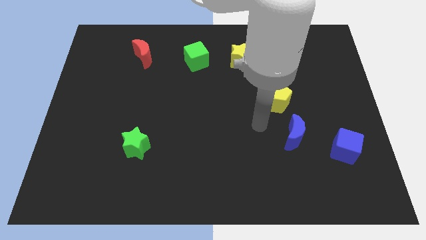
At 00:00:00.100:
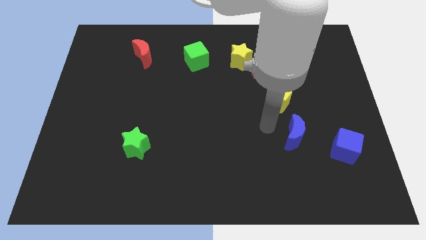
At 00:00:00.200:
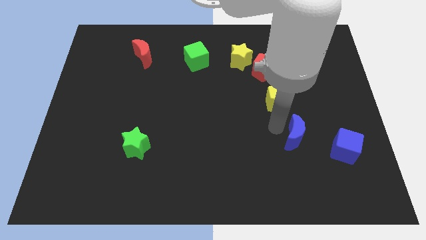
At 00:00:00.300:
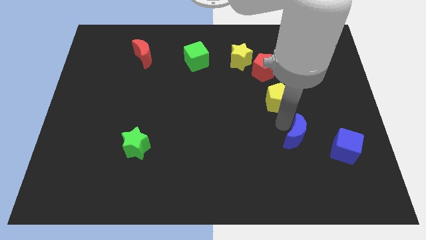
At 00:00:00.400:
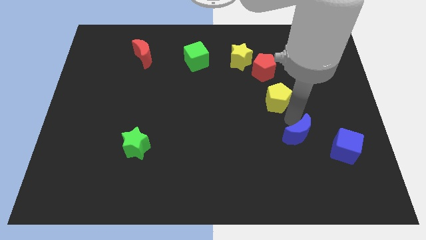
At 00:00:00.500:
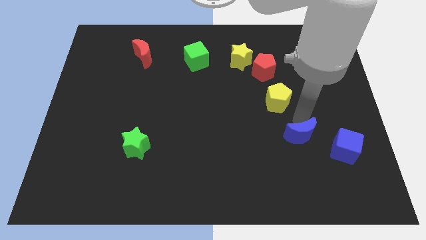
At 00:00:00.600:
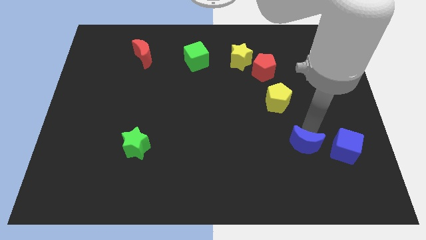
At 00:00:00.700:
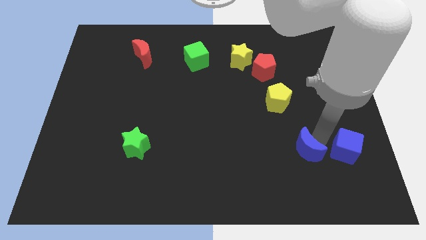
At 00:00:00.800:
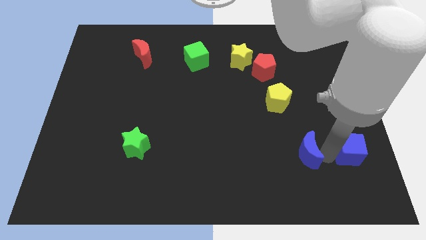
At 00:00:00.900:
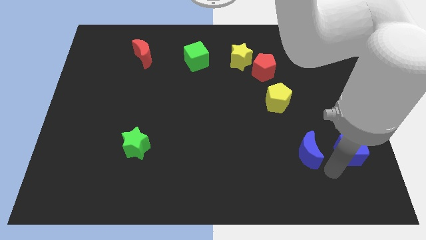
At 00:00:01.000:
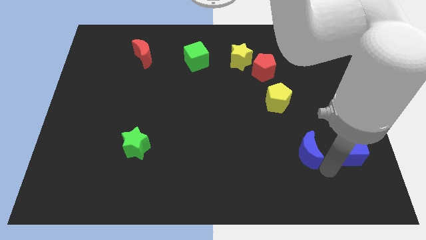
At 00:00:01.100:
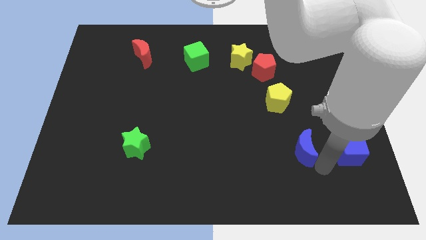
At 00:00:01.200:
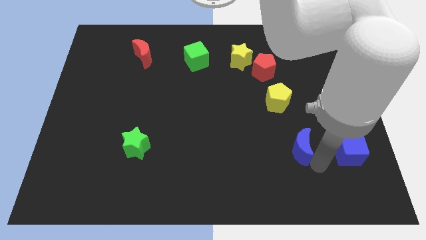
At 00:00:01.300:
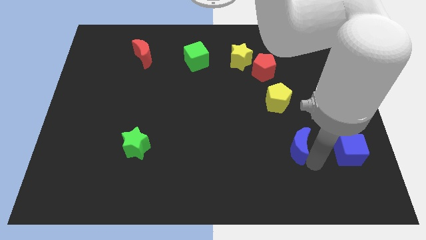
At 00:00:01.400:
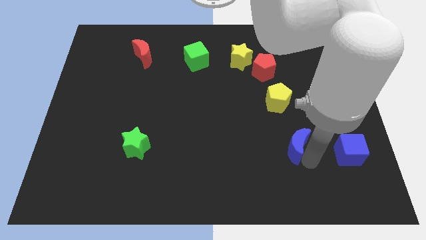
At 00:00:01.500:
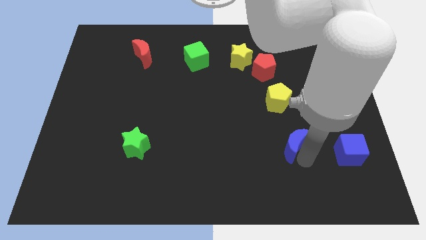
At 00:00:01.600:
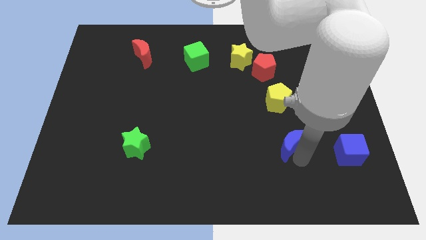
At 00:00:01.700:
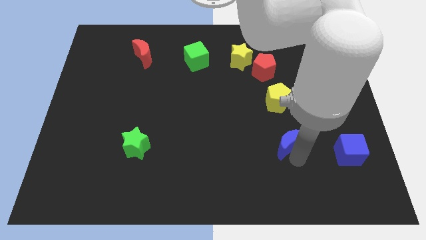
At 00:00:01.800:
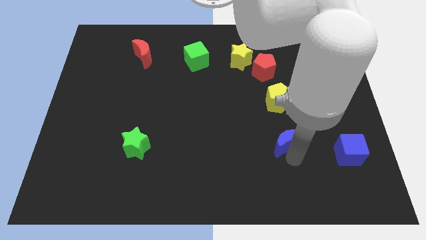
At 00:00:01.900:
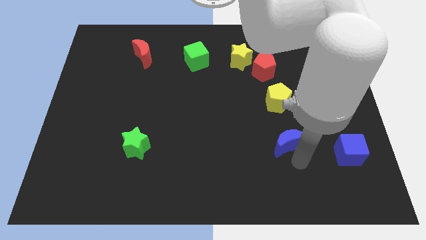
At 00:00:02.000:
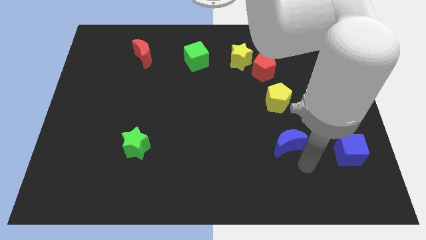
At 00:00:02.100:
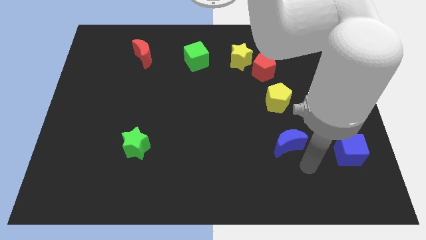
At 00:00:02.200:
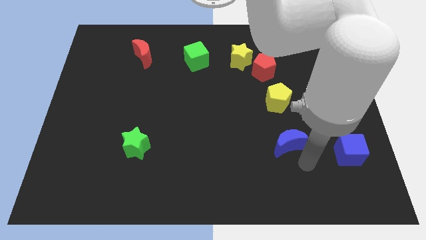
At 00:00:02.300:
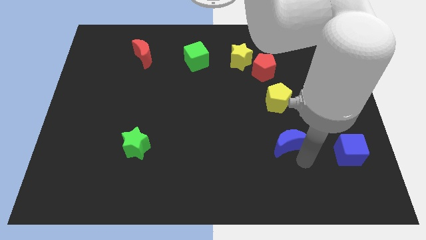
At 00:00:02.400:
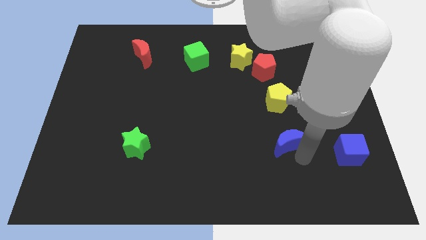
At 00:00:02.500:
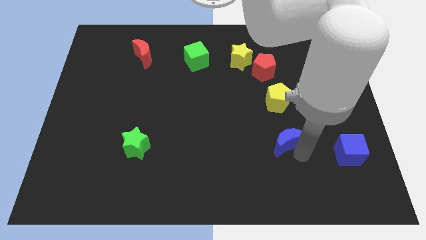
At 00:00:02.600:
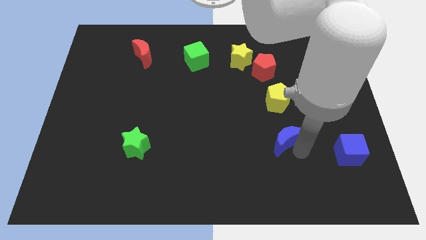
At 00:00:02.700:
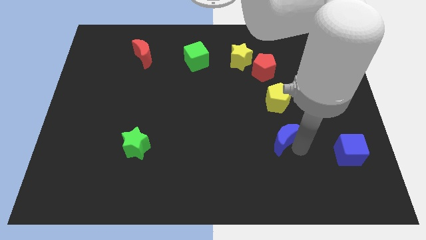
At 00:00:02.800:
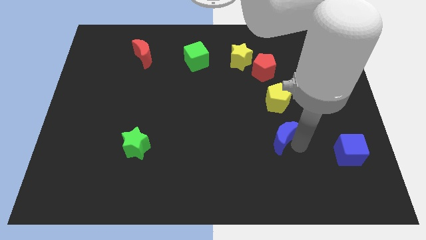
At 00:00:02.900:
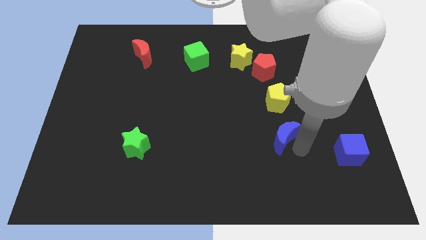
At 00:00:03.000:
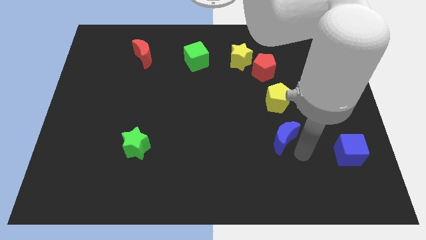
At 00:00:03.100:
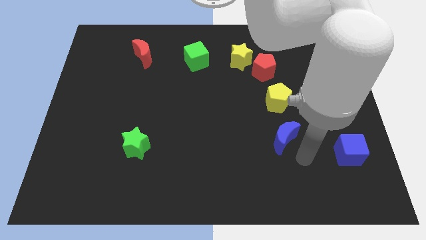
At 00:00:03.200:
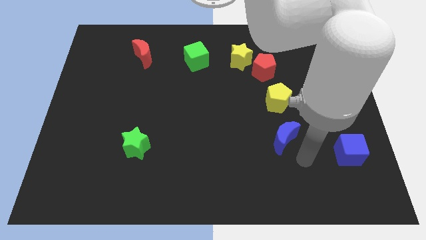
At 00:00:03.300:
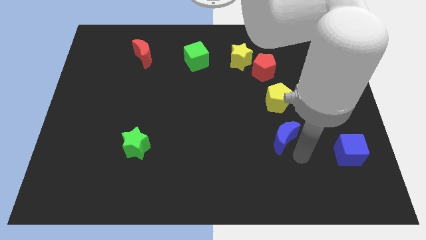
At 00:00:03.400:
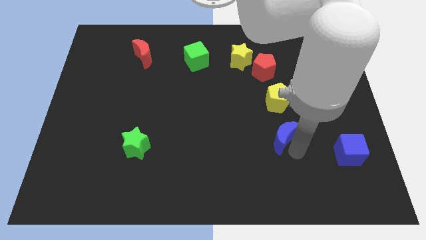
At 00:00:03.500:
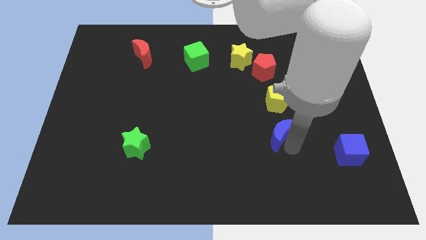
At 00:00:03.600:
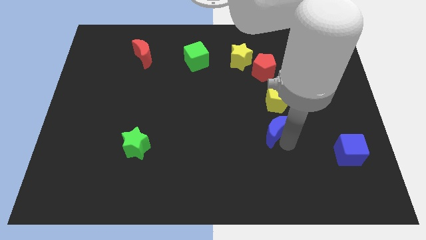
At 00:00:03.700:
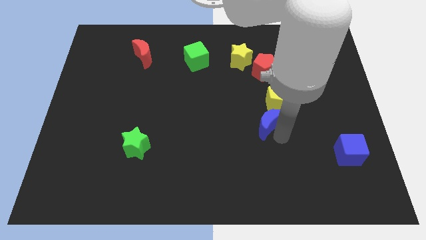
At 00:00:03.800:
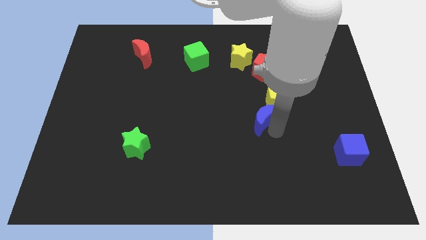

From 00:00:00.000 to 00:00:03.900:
slightly move the blue moon upwards and then to the left

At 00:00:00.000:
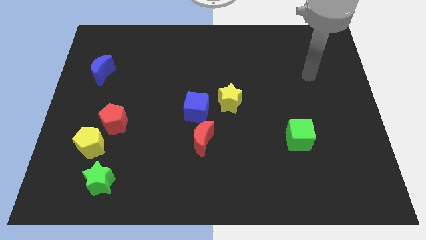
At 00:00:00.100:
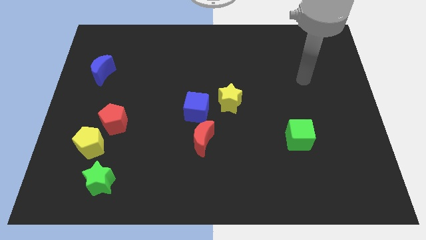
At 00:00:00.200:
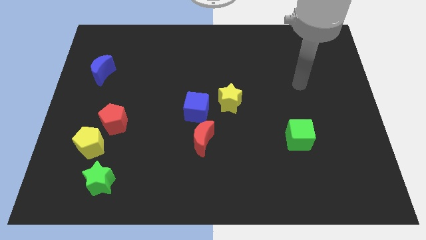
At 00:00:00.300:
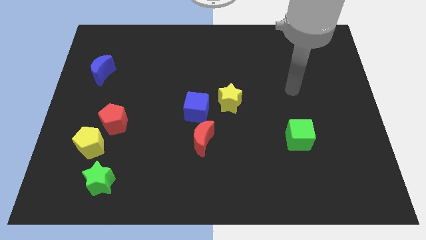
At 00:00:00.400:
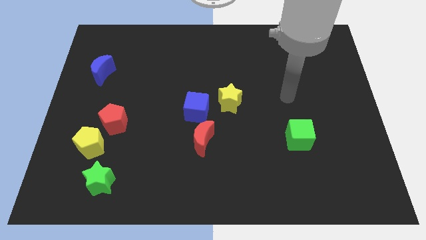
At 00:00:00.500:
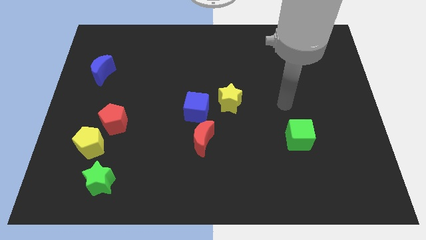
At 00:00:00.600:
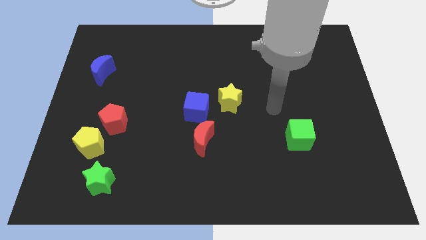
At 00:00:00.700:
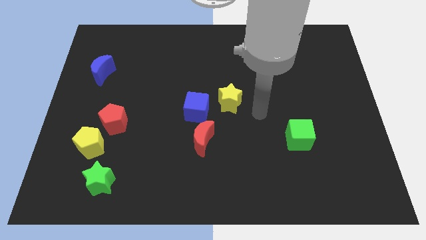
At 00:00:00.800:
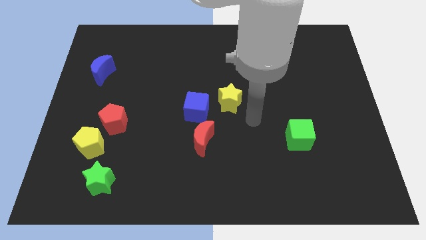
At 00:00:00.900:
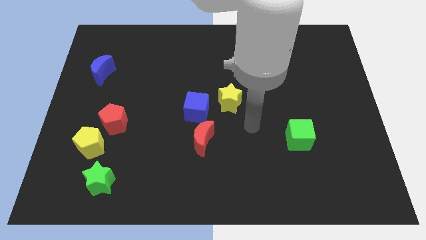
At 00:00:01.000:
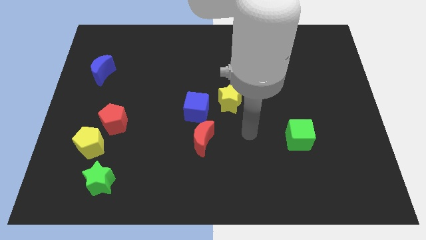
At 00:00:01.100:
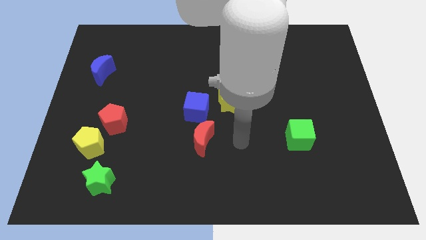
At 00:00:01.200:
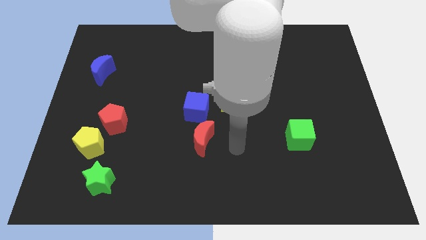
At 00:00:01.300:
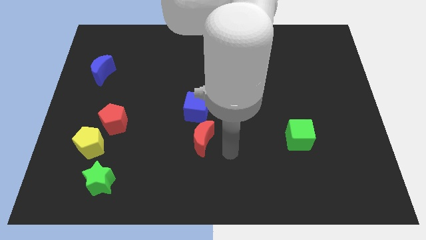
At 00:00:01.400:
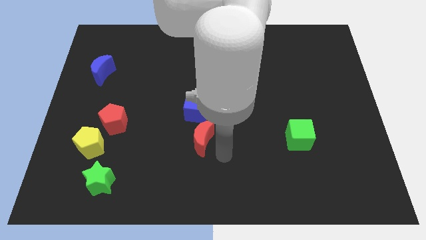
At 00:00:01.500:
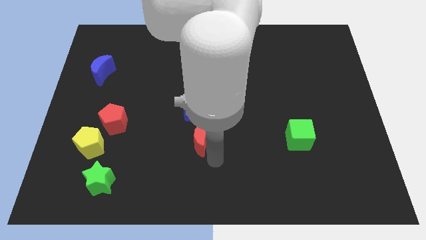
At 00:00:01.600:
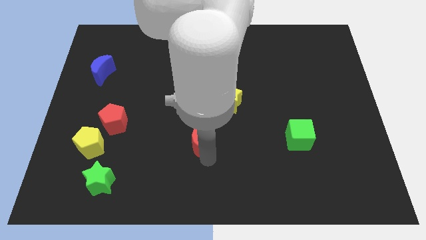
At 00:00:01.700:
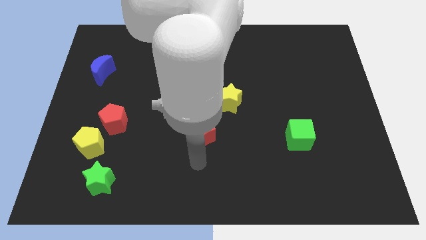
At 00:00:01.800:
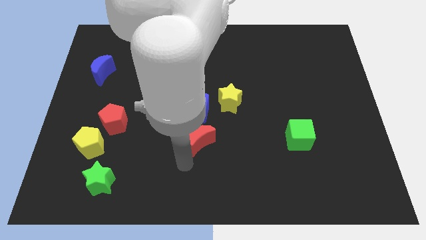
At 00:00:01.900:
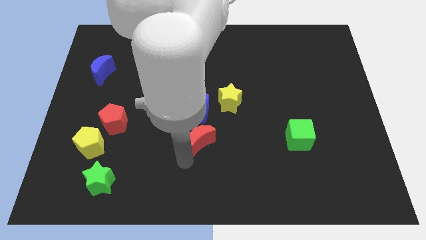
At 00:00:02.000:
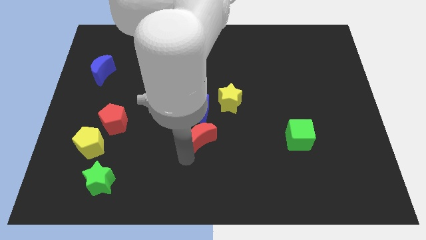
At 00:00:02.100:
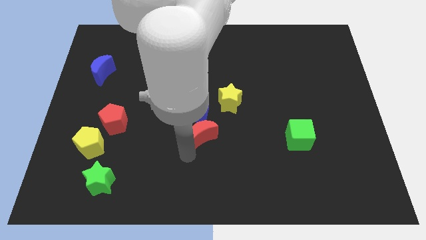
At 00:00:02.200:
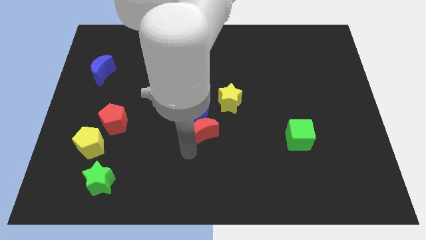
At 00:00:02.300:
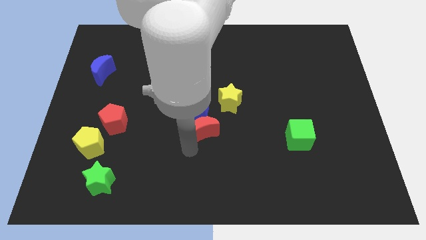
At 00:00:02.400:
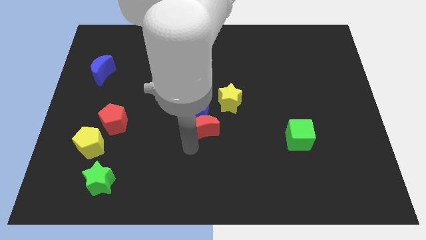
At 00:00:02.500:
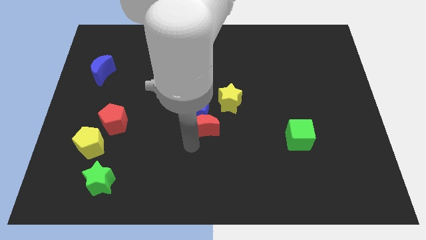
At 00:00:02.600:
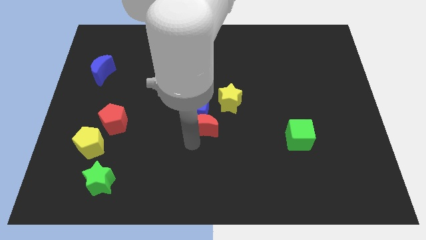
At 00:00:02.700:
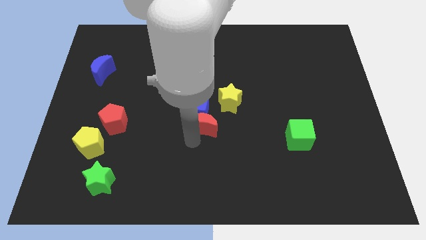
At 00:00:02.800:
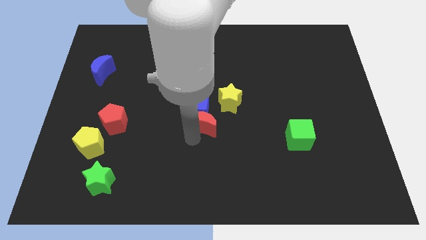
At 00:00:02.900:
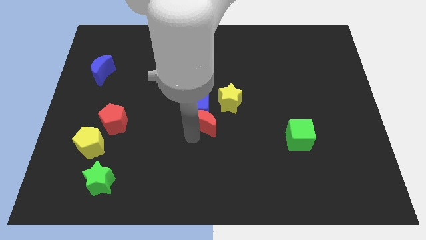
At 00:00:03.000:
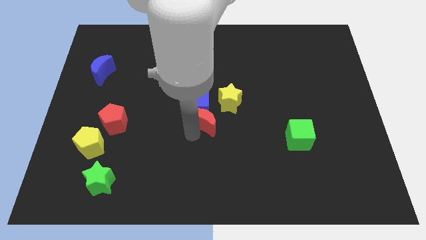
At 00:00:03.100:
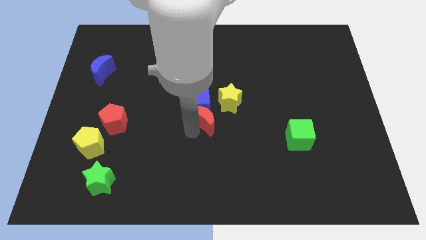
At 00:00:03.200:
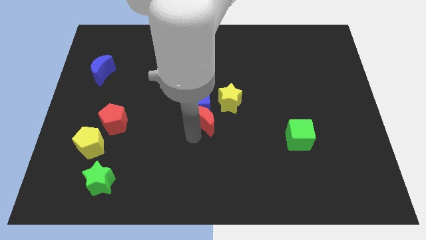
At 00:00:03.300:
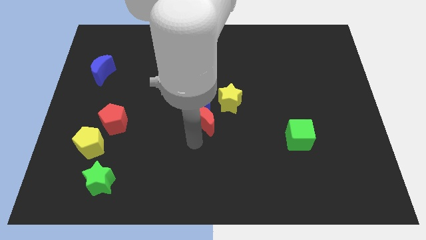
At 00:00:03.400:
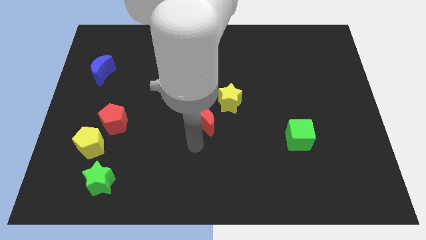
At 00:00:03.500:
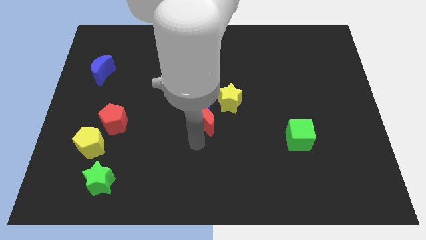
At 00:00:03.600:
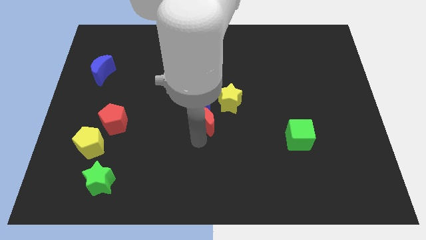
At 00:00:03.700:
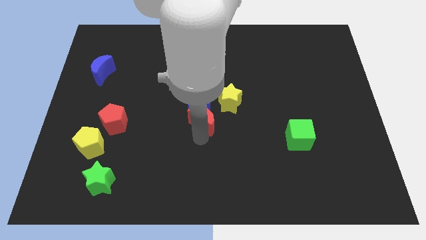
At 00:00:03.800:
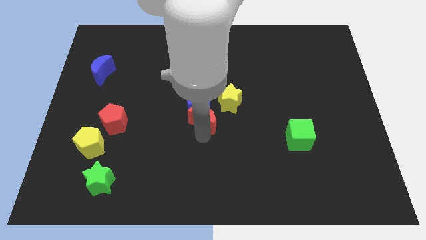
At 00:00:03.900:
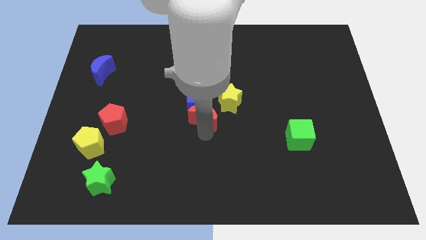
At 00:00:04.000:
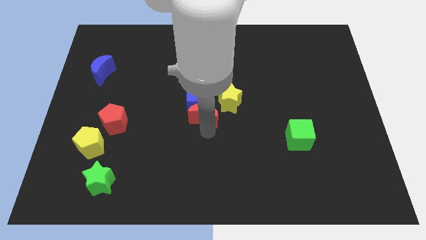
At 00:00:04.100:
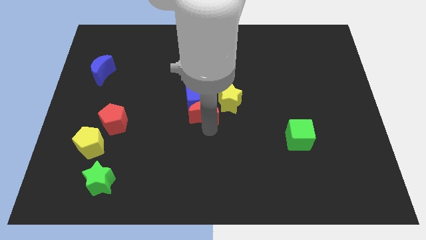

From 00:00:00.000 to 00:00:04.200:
slide the red moon up a little bit
